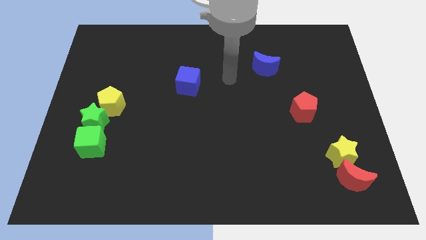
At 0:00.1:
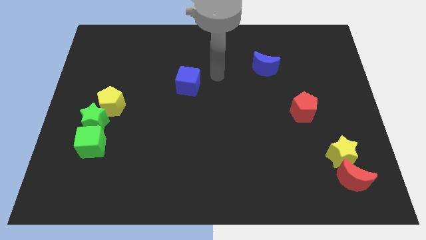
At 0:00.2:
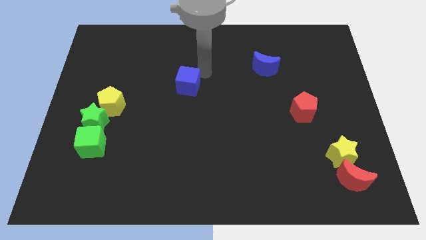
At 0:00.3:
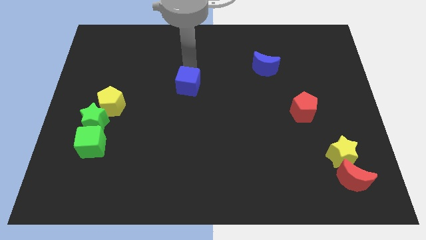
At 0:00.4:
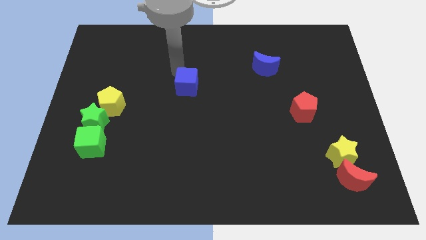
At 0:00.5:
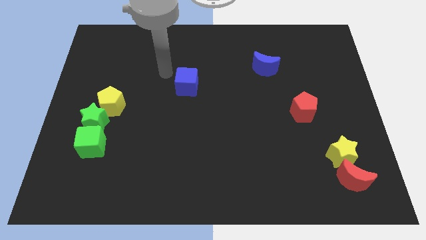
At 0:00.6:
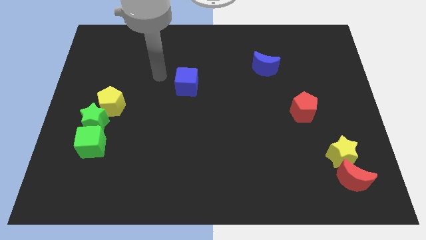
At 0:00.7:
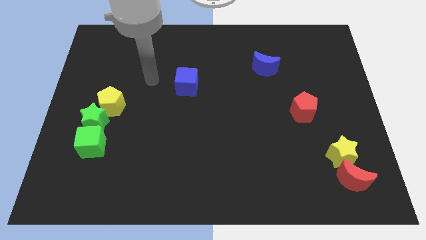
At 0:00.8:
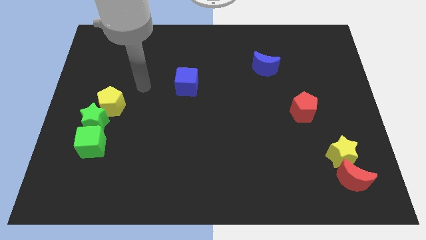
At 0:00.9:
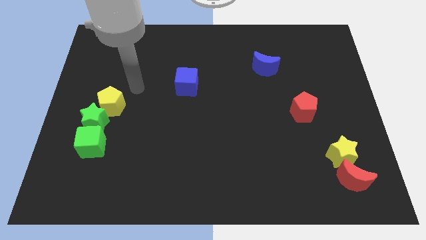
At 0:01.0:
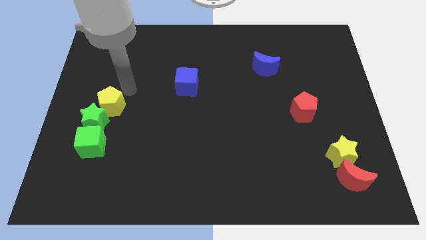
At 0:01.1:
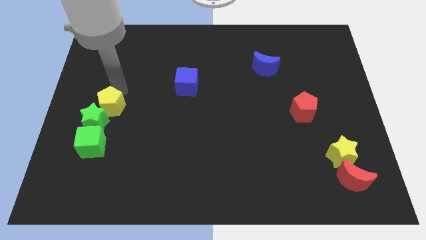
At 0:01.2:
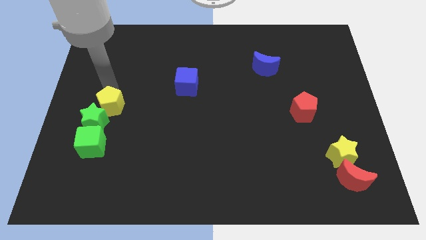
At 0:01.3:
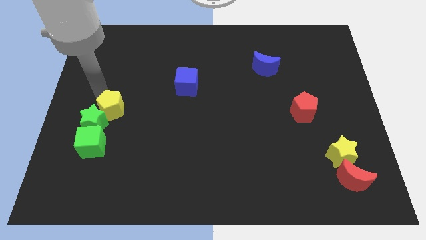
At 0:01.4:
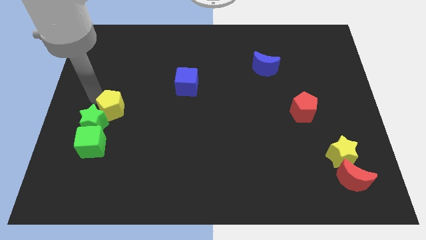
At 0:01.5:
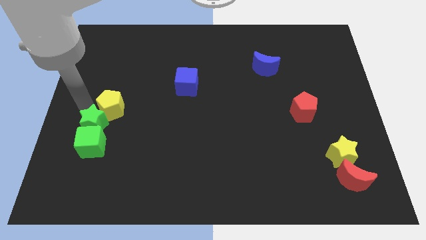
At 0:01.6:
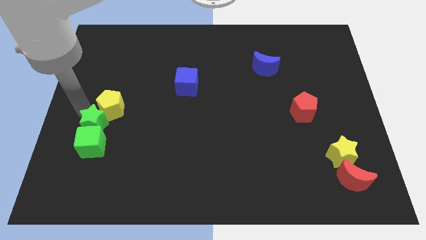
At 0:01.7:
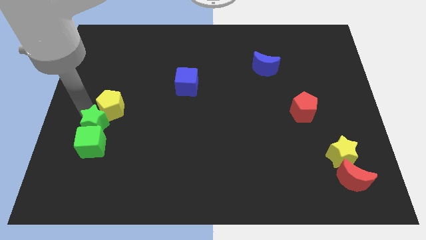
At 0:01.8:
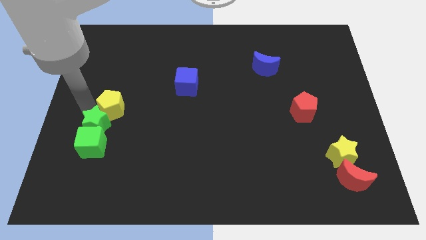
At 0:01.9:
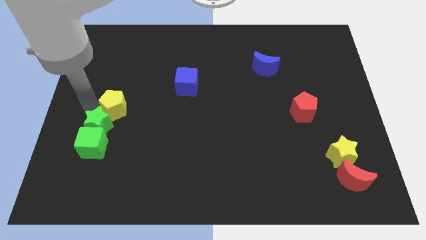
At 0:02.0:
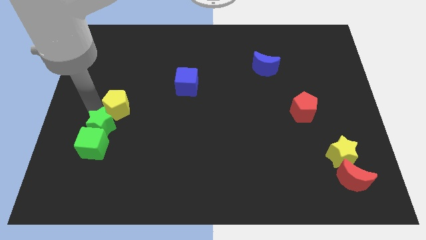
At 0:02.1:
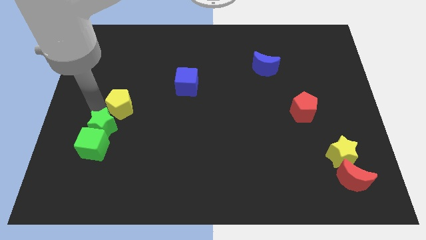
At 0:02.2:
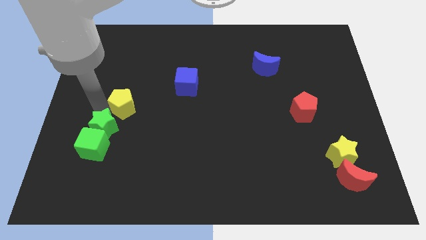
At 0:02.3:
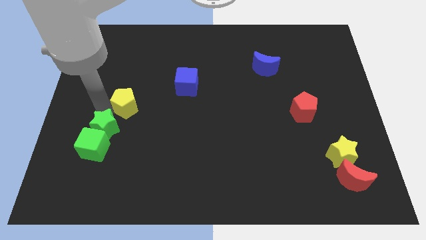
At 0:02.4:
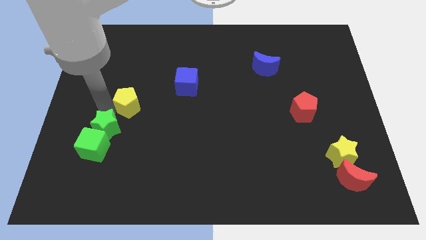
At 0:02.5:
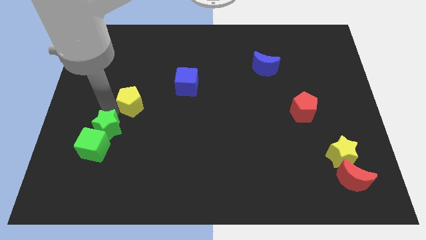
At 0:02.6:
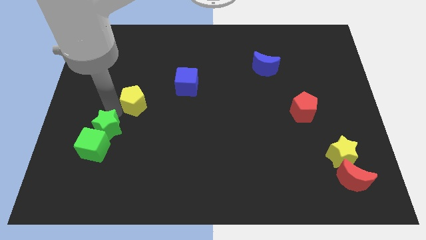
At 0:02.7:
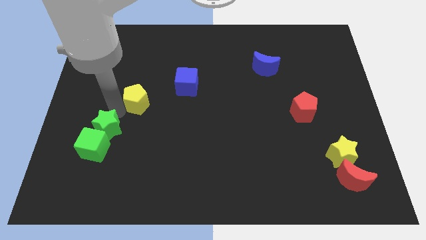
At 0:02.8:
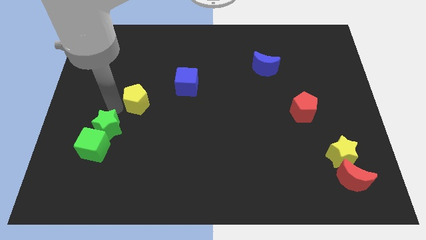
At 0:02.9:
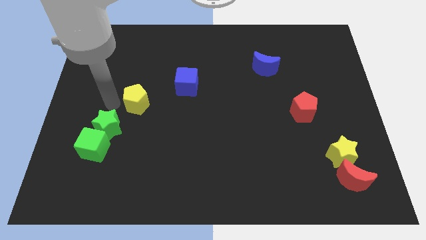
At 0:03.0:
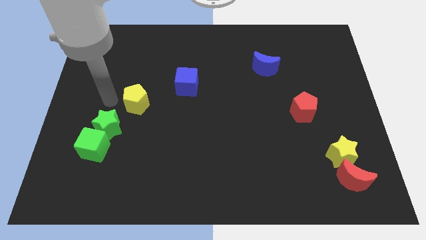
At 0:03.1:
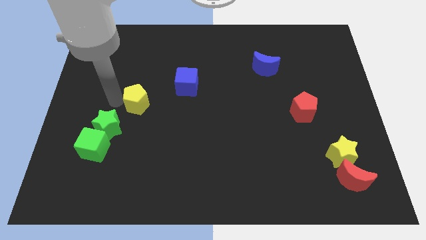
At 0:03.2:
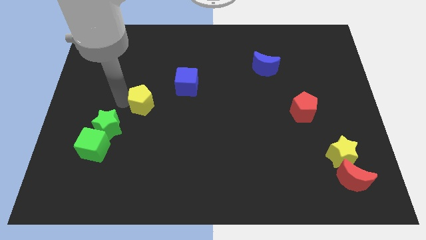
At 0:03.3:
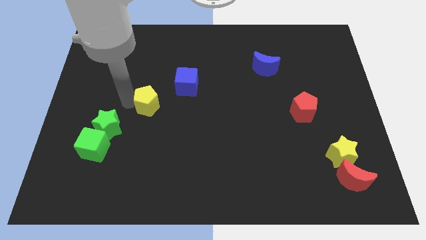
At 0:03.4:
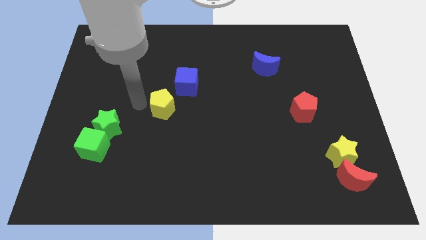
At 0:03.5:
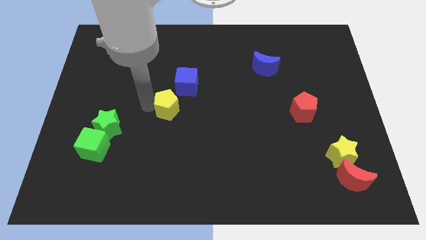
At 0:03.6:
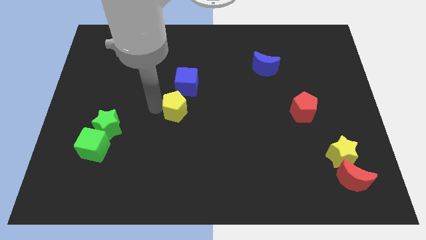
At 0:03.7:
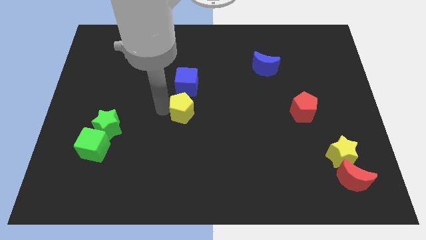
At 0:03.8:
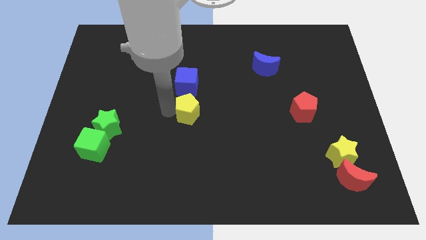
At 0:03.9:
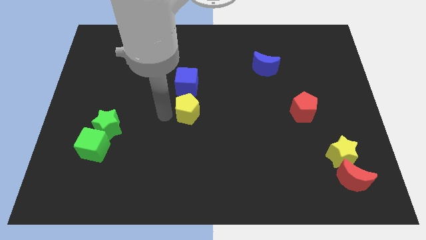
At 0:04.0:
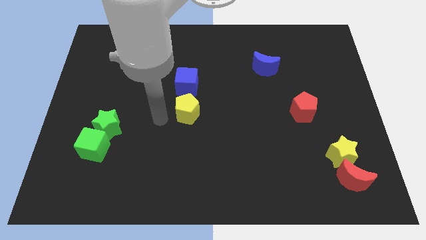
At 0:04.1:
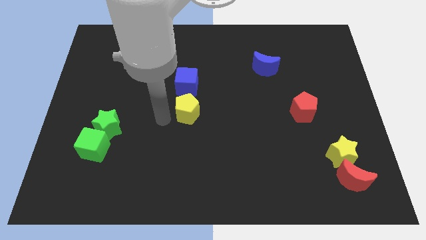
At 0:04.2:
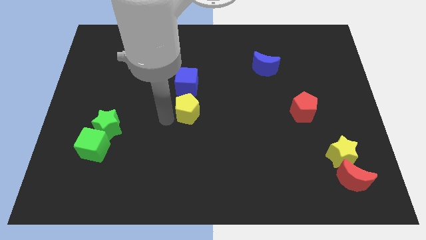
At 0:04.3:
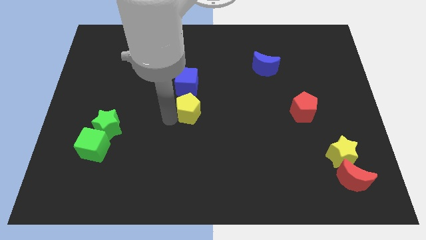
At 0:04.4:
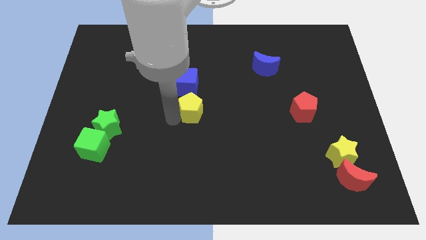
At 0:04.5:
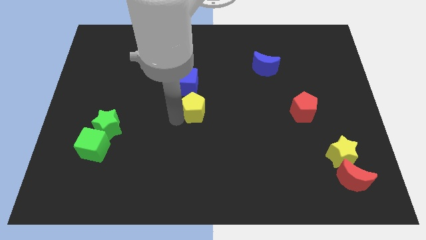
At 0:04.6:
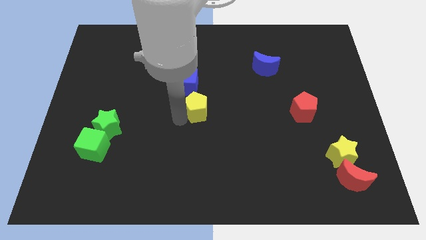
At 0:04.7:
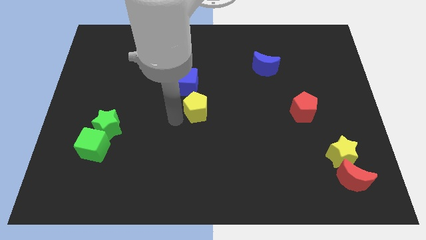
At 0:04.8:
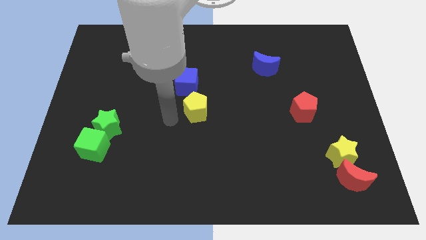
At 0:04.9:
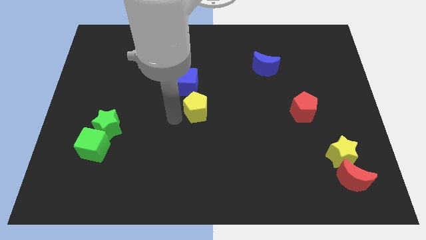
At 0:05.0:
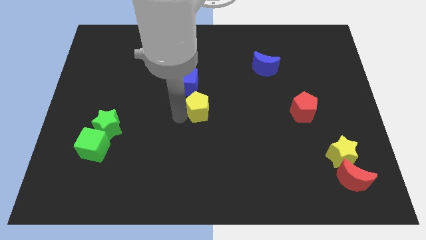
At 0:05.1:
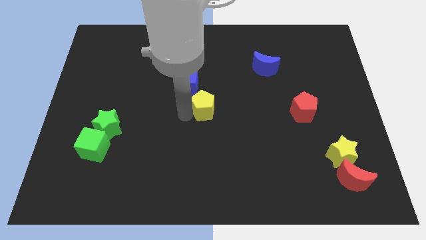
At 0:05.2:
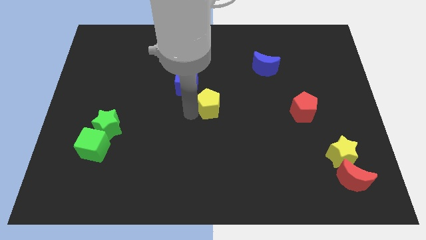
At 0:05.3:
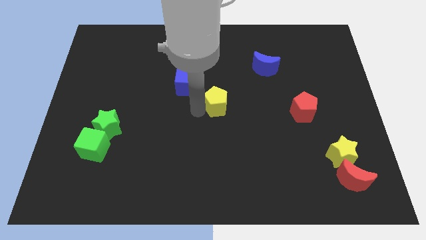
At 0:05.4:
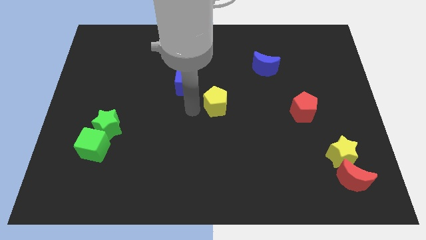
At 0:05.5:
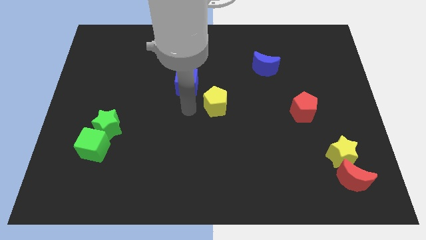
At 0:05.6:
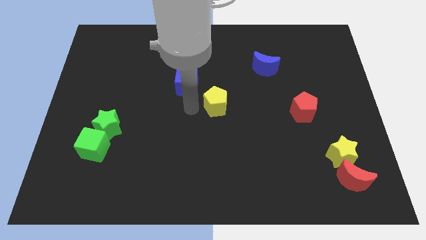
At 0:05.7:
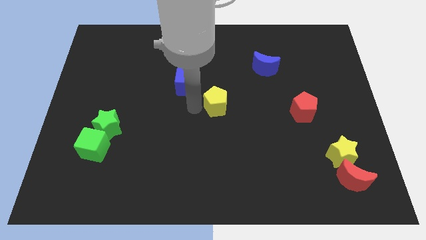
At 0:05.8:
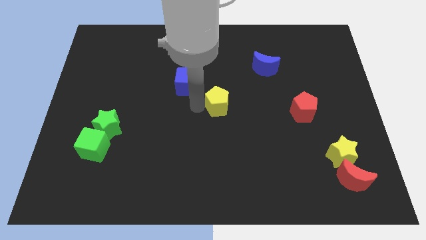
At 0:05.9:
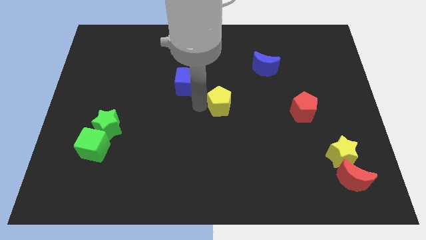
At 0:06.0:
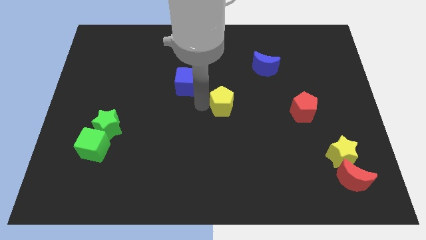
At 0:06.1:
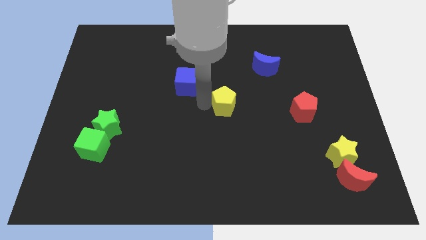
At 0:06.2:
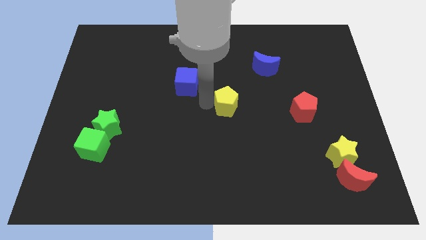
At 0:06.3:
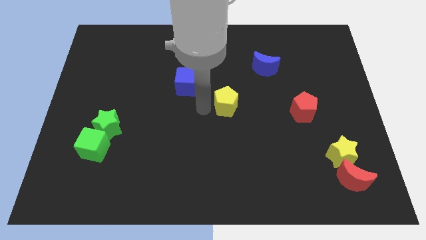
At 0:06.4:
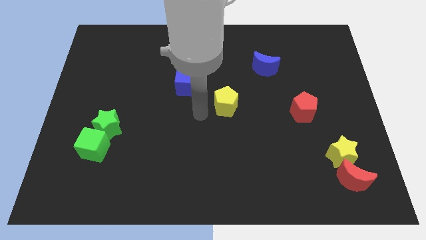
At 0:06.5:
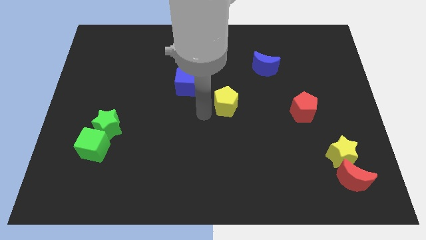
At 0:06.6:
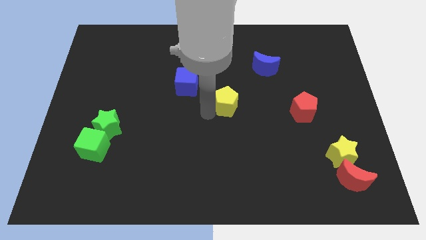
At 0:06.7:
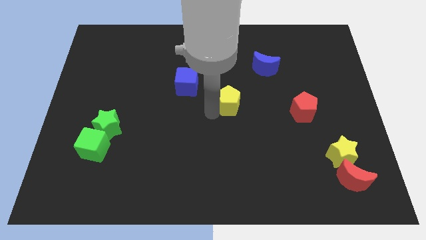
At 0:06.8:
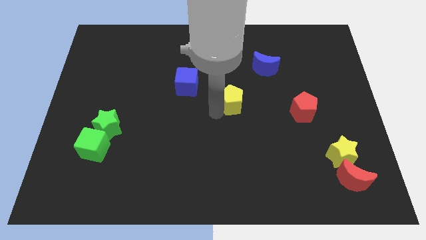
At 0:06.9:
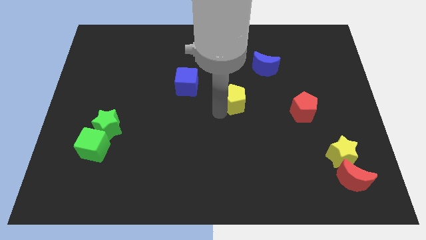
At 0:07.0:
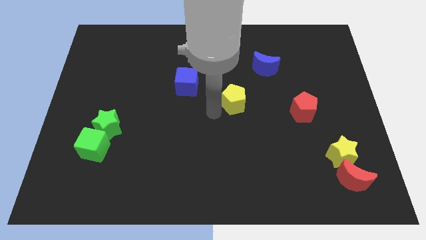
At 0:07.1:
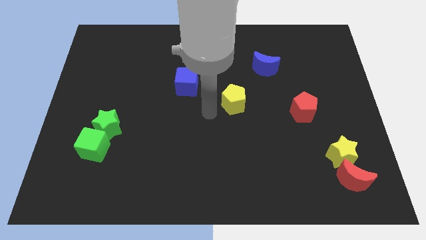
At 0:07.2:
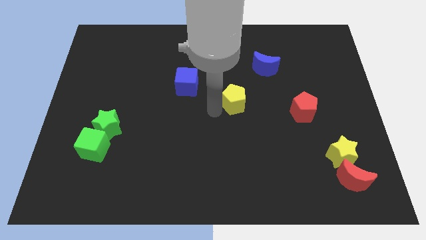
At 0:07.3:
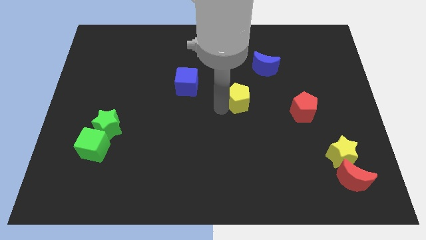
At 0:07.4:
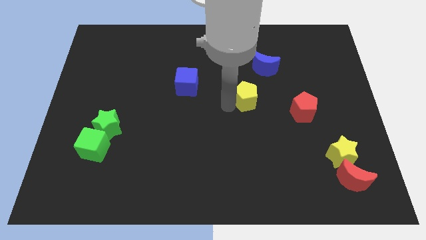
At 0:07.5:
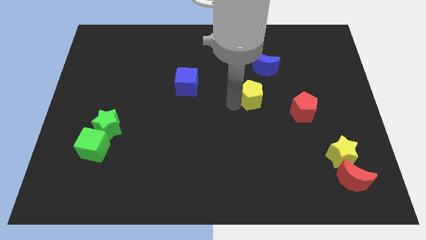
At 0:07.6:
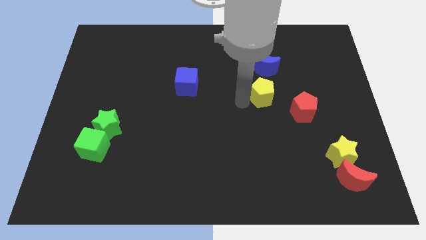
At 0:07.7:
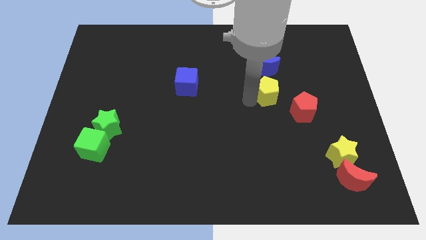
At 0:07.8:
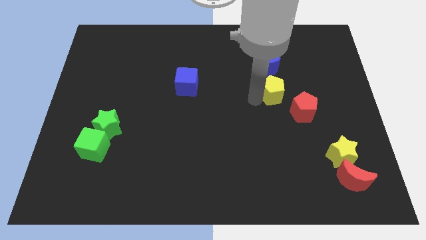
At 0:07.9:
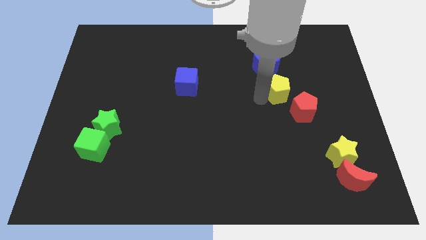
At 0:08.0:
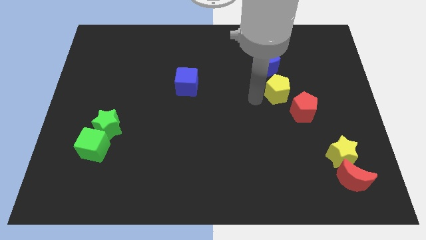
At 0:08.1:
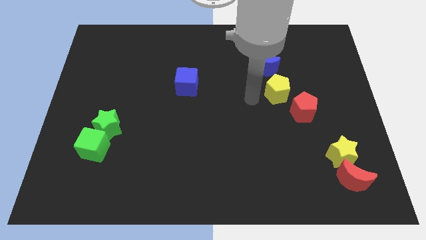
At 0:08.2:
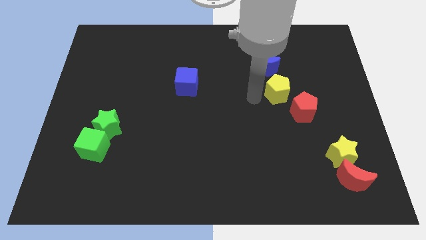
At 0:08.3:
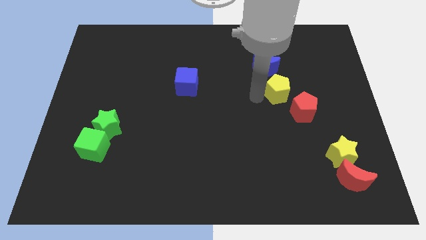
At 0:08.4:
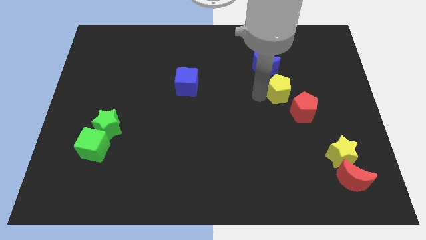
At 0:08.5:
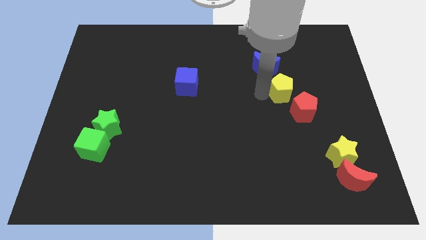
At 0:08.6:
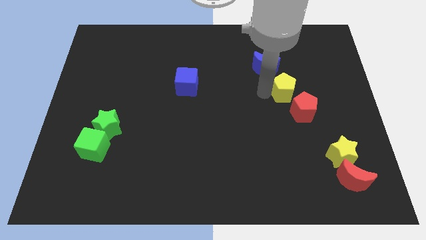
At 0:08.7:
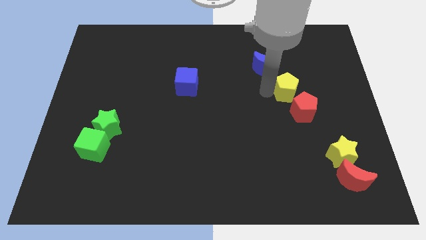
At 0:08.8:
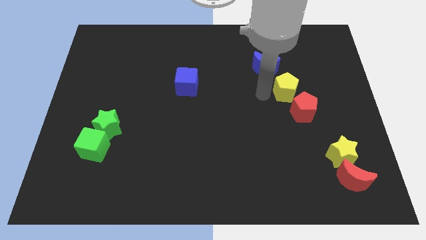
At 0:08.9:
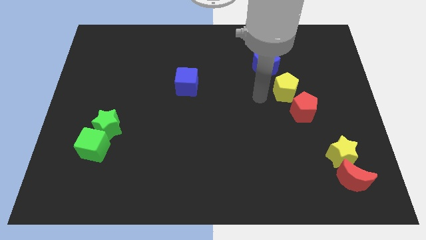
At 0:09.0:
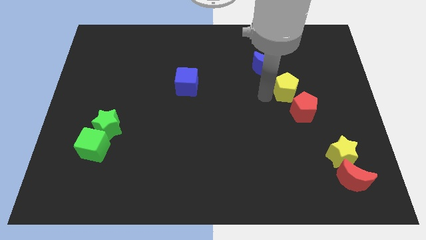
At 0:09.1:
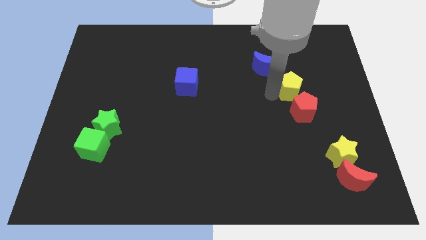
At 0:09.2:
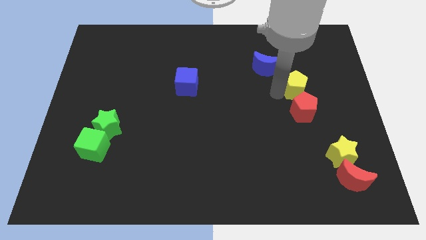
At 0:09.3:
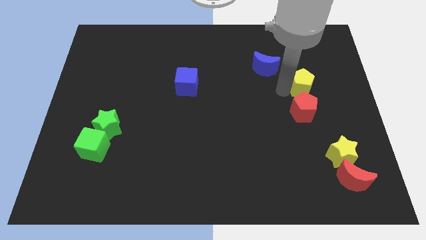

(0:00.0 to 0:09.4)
put the yellow pentagon diagonally up and to the right of the red pentagon
